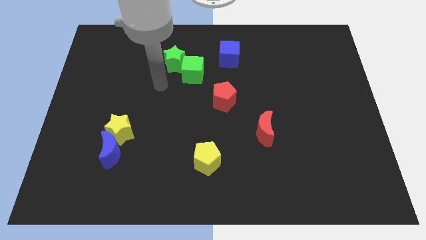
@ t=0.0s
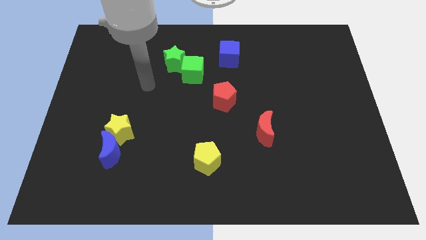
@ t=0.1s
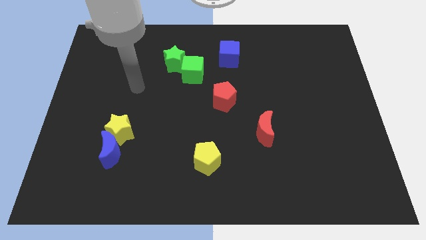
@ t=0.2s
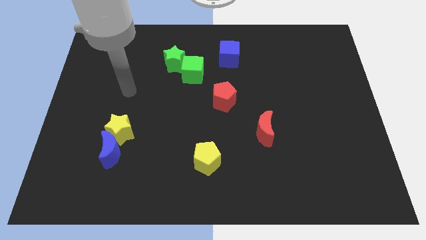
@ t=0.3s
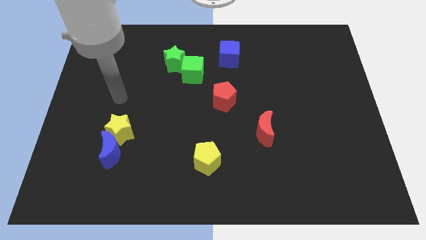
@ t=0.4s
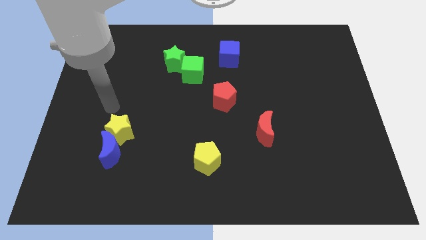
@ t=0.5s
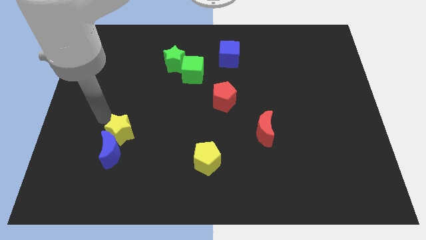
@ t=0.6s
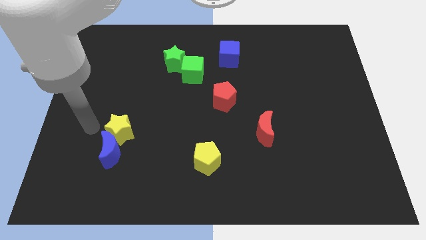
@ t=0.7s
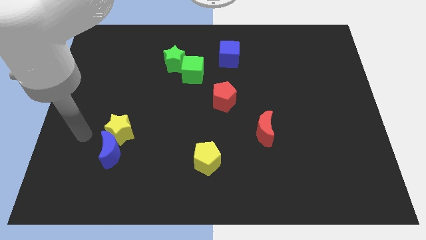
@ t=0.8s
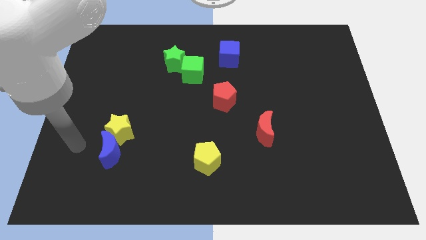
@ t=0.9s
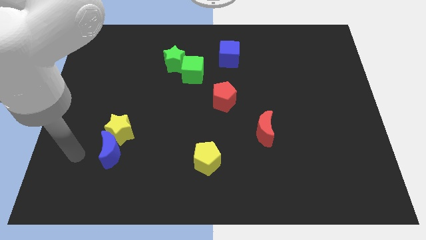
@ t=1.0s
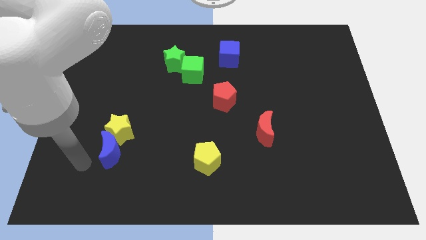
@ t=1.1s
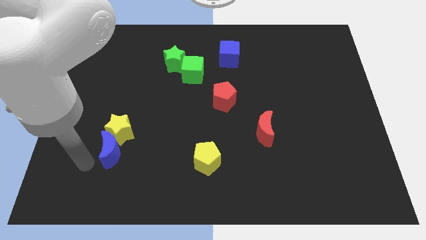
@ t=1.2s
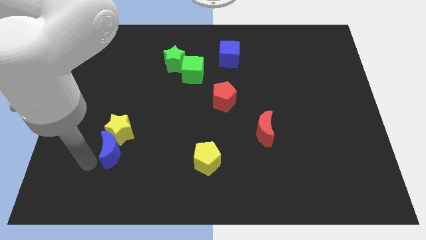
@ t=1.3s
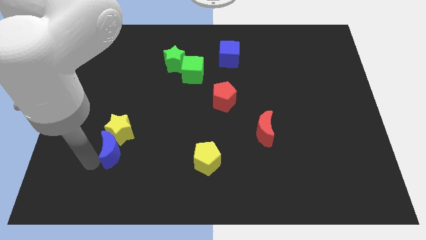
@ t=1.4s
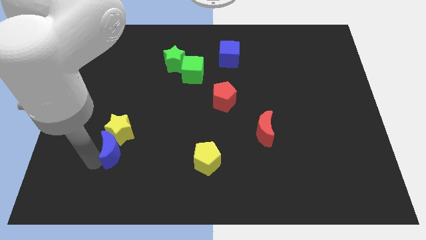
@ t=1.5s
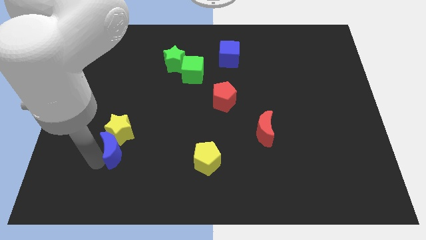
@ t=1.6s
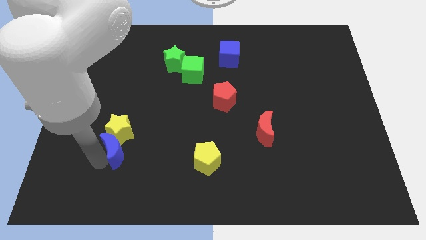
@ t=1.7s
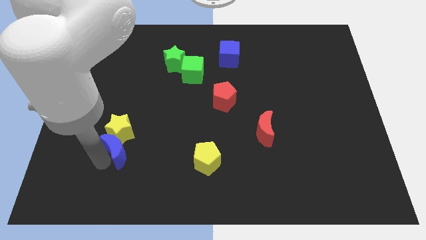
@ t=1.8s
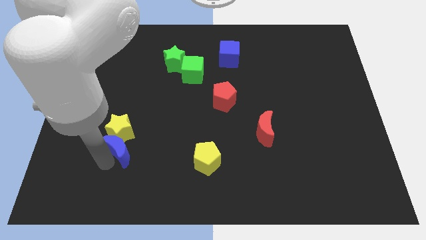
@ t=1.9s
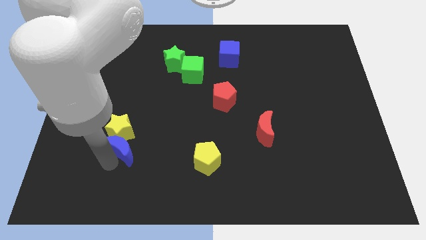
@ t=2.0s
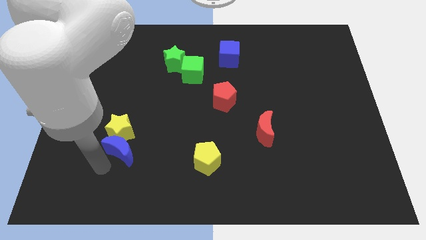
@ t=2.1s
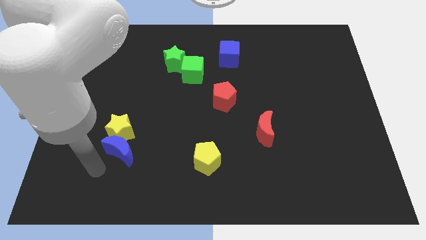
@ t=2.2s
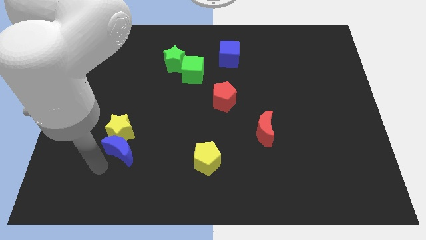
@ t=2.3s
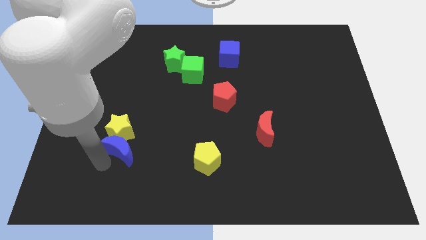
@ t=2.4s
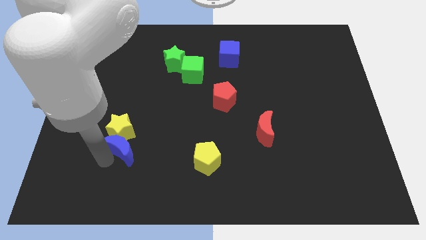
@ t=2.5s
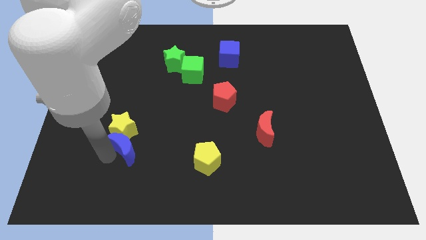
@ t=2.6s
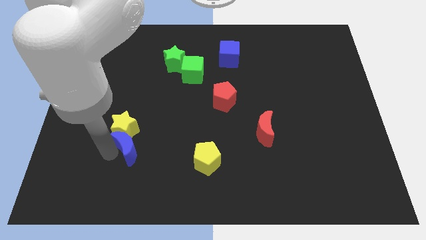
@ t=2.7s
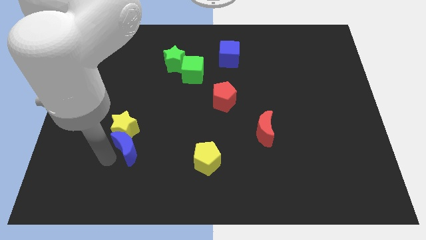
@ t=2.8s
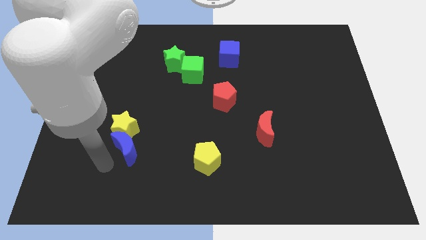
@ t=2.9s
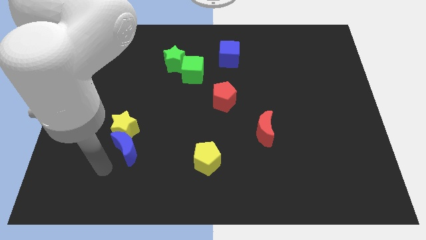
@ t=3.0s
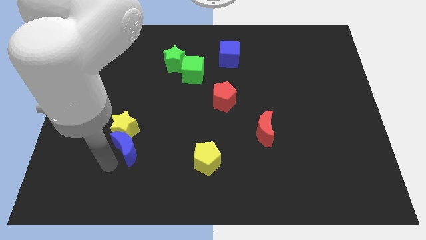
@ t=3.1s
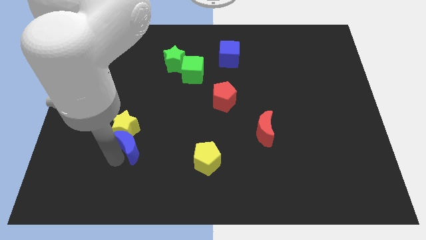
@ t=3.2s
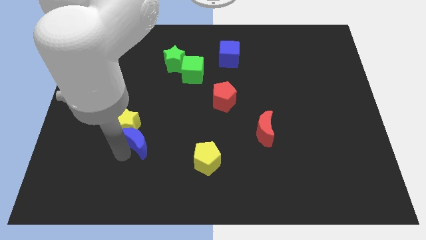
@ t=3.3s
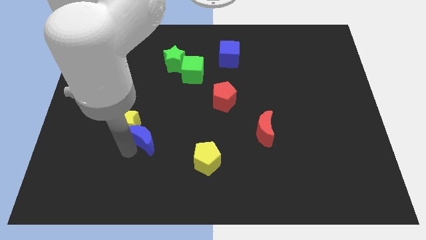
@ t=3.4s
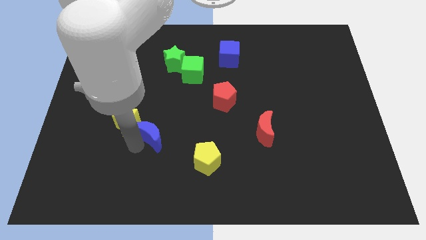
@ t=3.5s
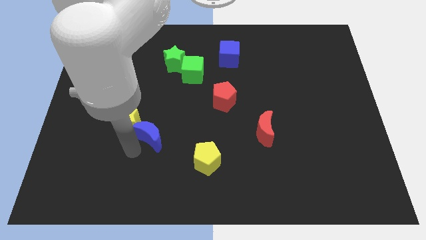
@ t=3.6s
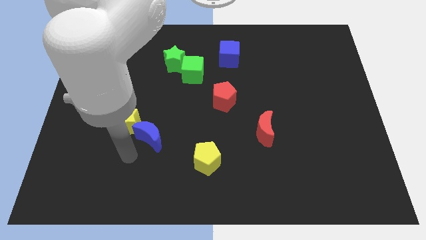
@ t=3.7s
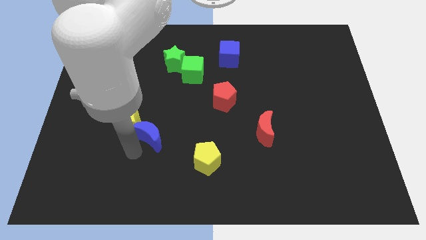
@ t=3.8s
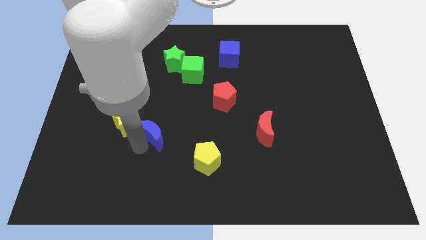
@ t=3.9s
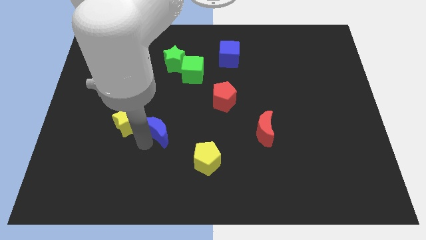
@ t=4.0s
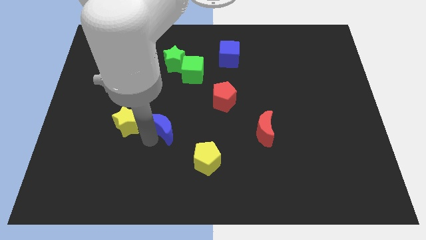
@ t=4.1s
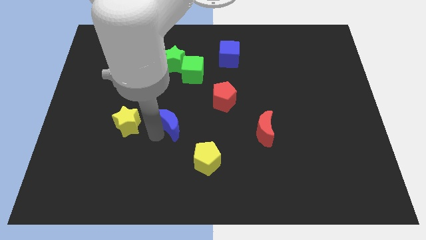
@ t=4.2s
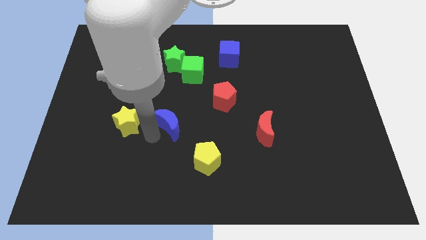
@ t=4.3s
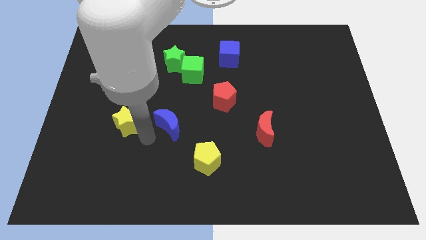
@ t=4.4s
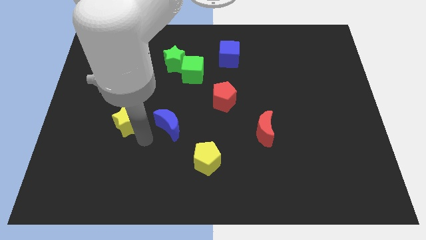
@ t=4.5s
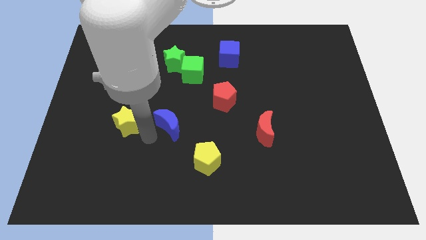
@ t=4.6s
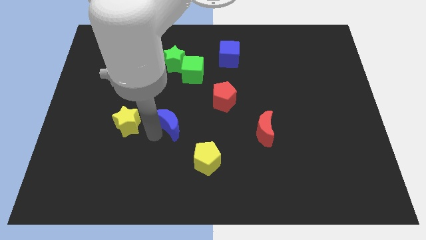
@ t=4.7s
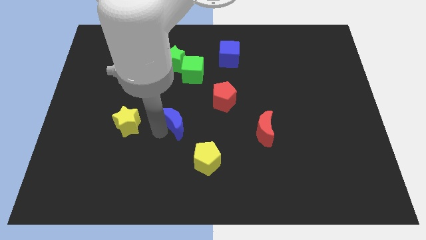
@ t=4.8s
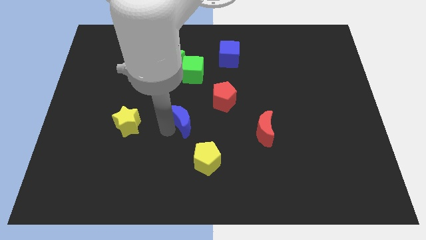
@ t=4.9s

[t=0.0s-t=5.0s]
put the blue moon to the bottom side of the green cube

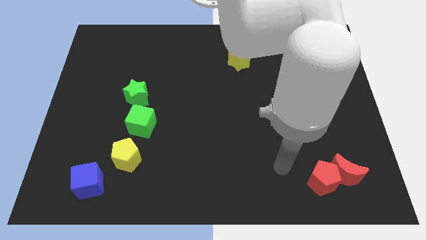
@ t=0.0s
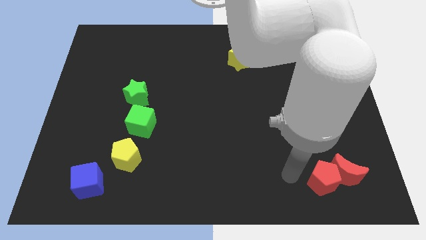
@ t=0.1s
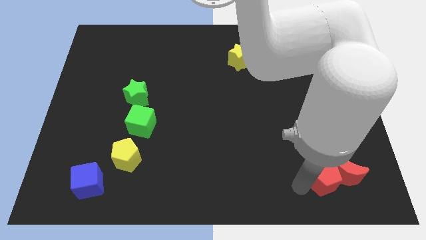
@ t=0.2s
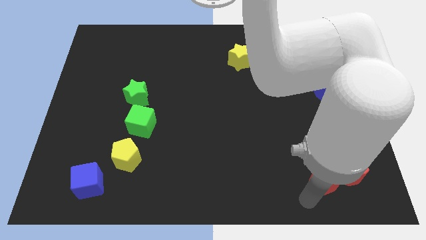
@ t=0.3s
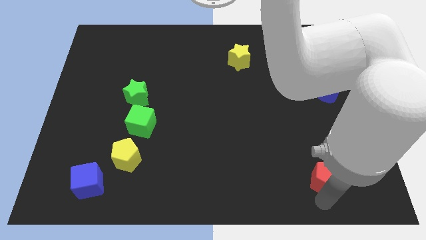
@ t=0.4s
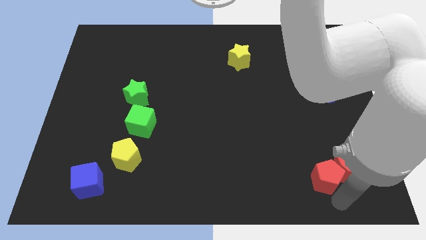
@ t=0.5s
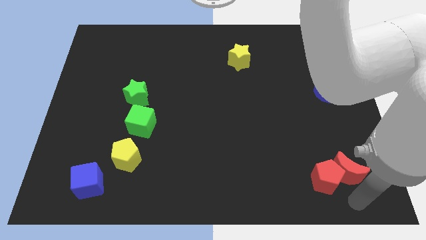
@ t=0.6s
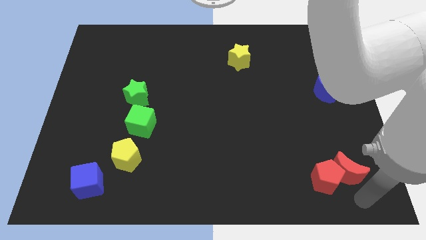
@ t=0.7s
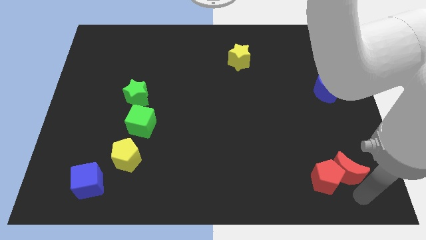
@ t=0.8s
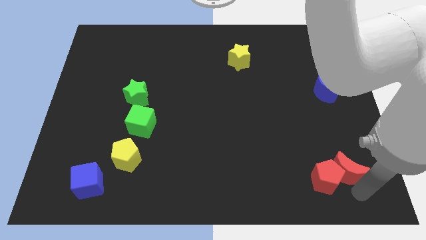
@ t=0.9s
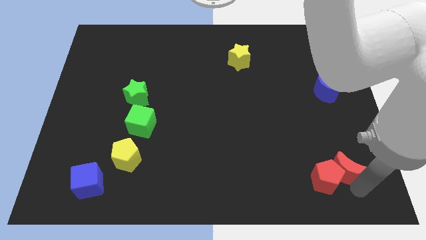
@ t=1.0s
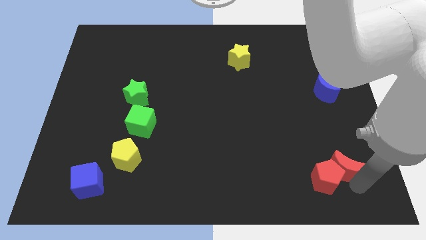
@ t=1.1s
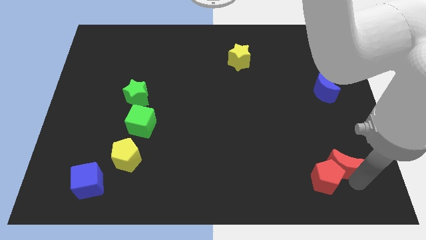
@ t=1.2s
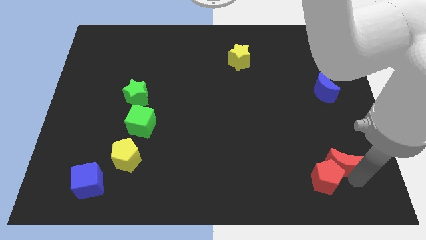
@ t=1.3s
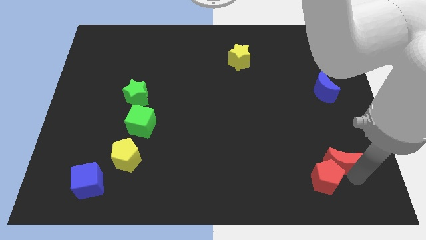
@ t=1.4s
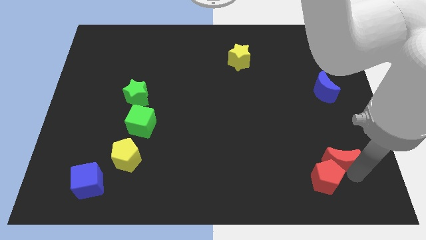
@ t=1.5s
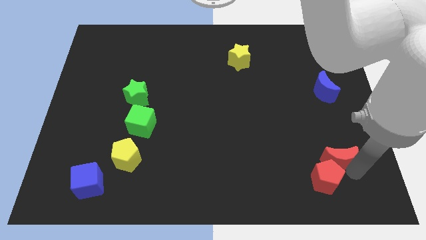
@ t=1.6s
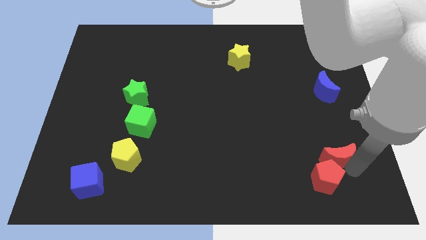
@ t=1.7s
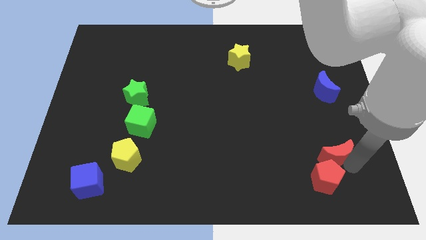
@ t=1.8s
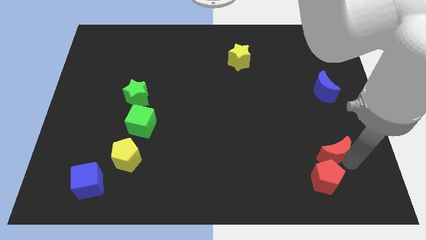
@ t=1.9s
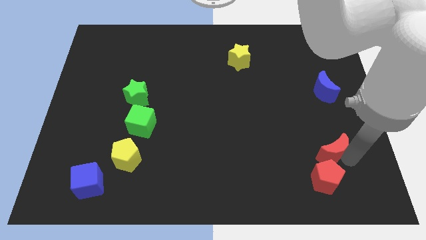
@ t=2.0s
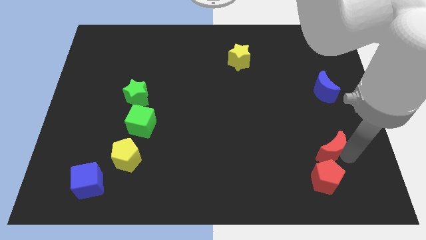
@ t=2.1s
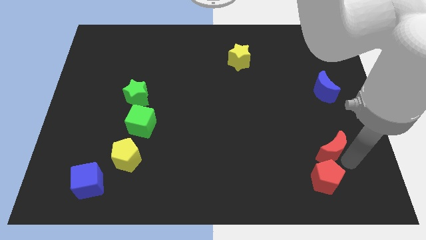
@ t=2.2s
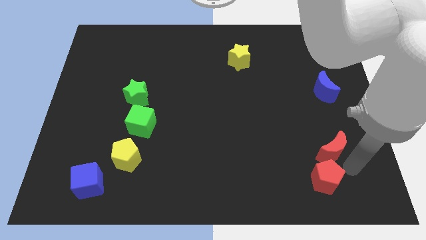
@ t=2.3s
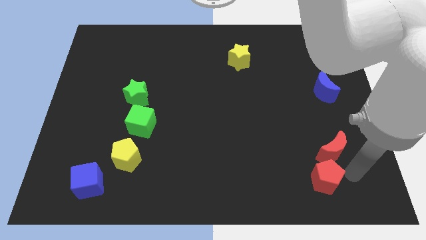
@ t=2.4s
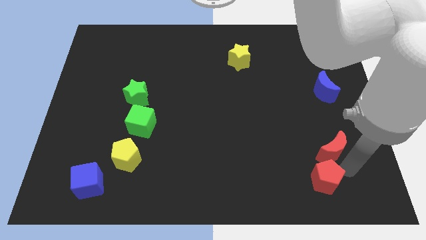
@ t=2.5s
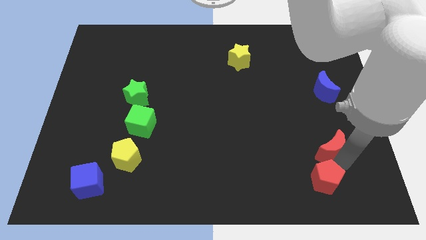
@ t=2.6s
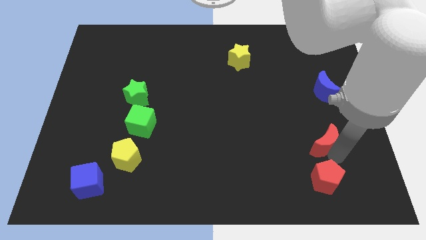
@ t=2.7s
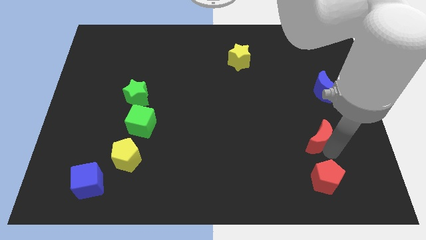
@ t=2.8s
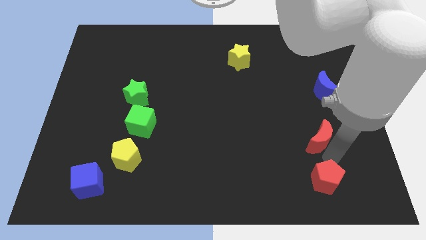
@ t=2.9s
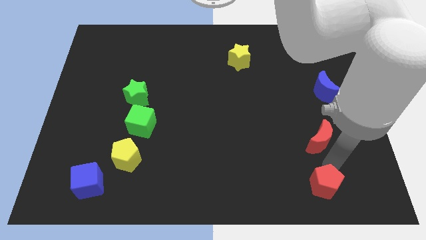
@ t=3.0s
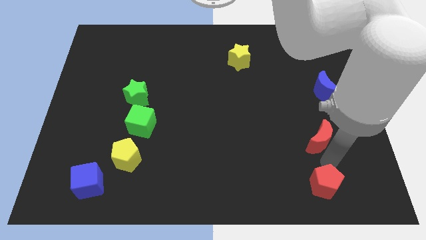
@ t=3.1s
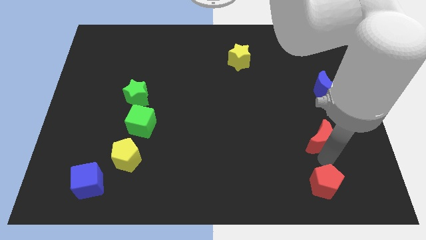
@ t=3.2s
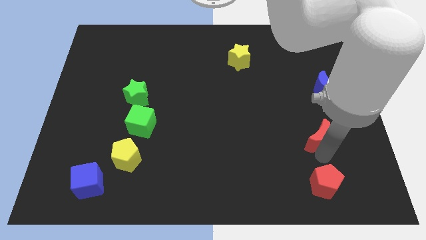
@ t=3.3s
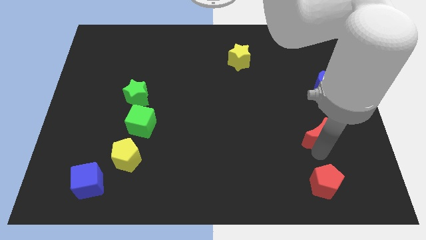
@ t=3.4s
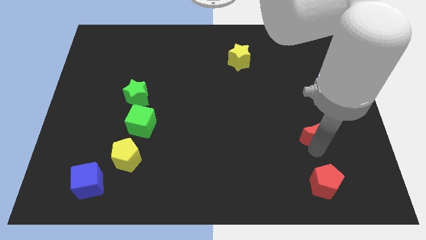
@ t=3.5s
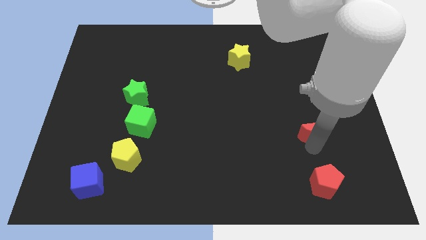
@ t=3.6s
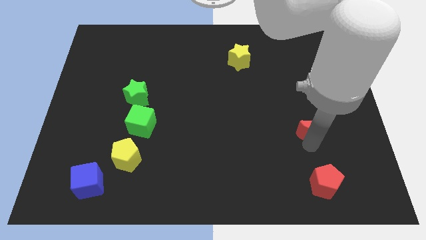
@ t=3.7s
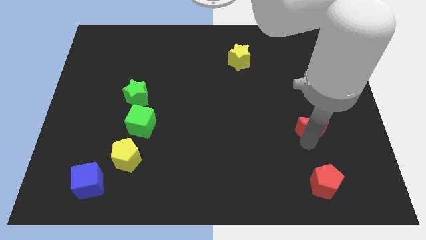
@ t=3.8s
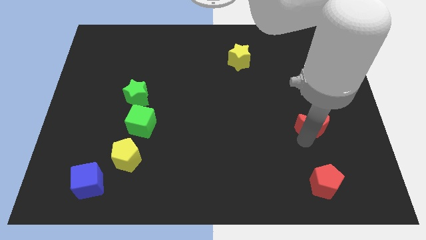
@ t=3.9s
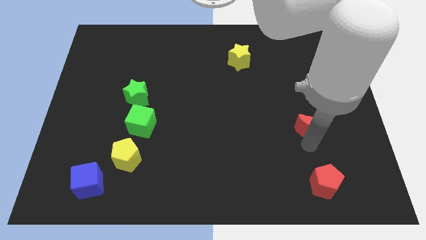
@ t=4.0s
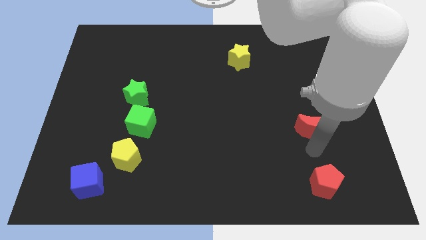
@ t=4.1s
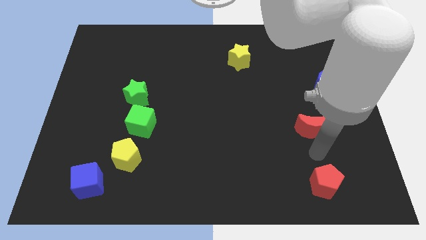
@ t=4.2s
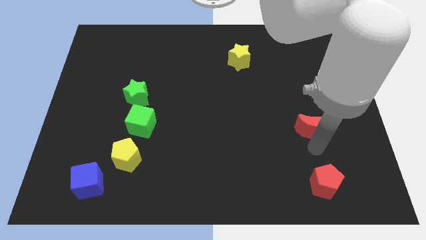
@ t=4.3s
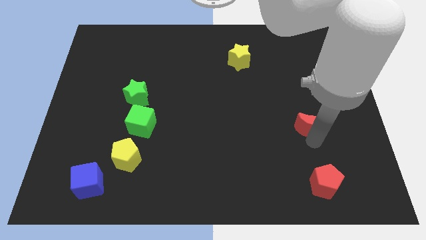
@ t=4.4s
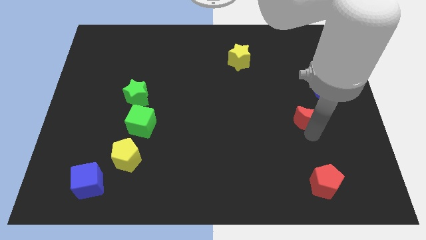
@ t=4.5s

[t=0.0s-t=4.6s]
push the red moon diagonally down and to the left of the blue moon
